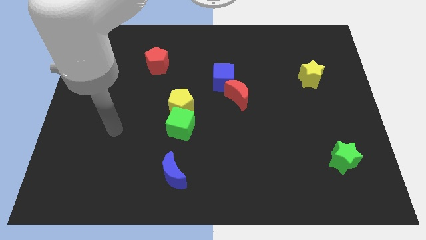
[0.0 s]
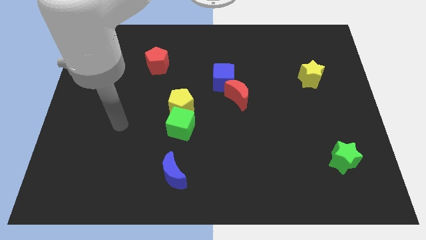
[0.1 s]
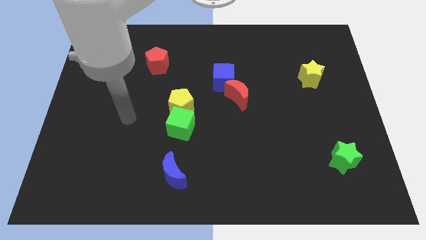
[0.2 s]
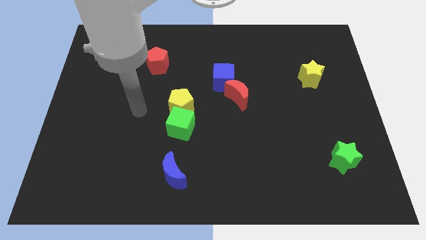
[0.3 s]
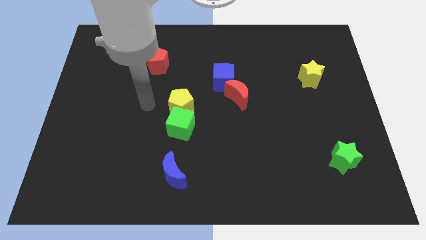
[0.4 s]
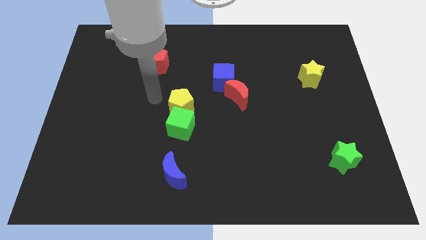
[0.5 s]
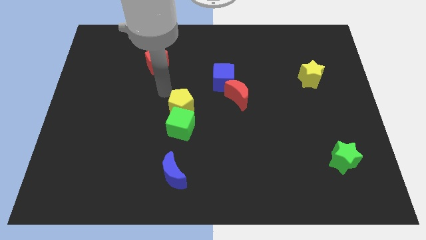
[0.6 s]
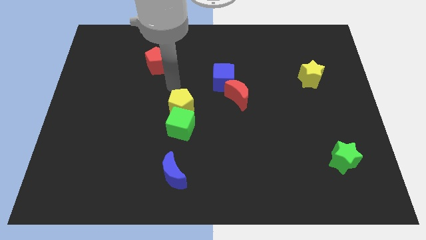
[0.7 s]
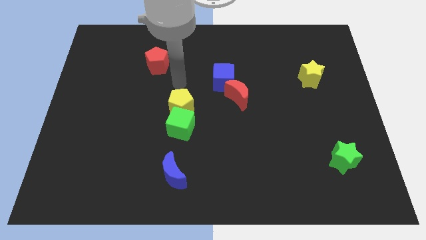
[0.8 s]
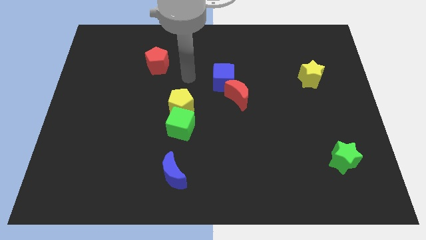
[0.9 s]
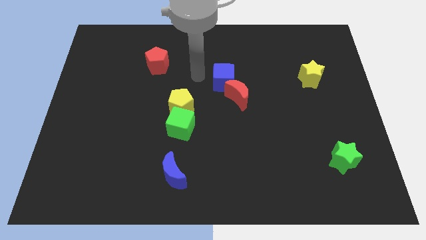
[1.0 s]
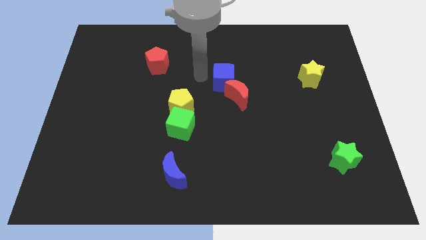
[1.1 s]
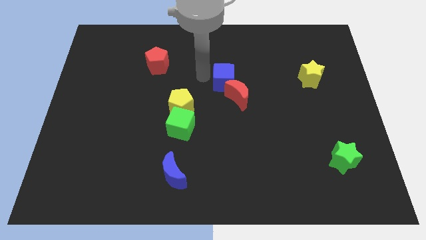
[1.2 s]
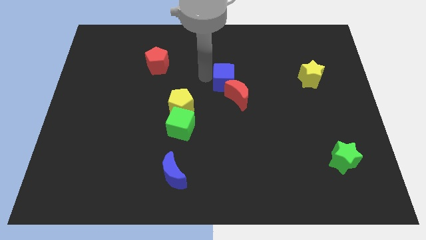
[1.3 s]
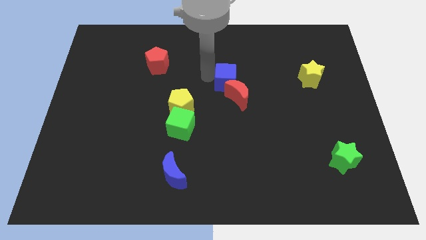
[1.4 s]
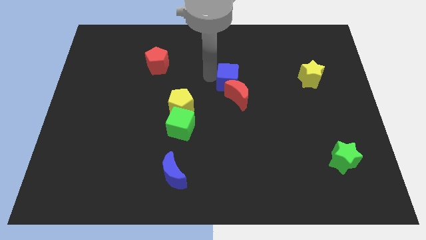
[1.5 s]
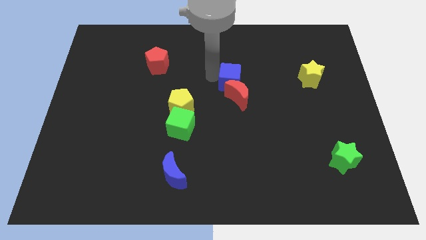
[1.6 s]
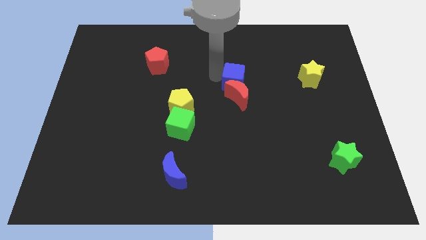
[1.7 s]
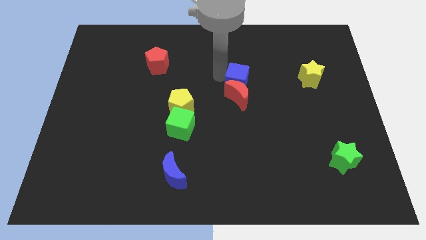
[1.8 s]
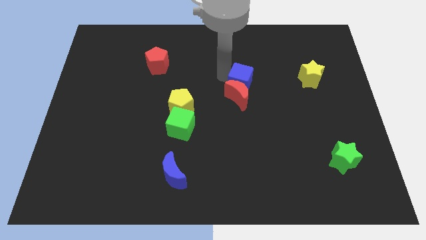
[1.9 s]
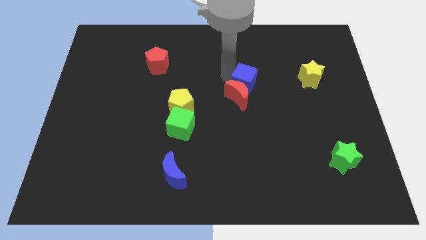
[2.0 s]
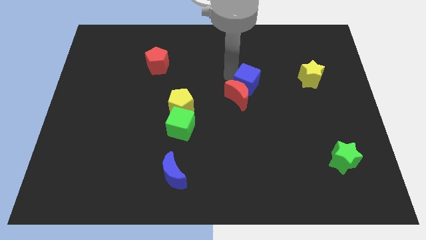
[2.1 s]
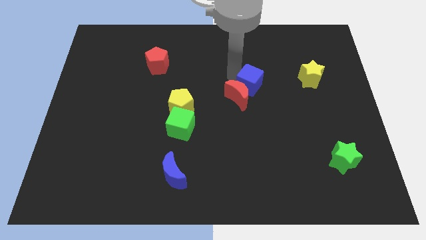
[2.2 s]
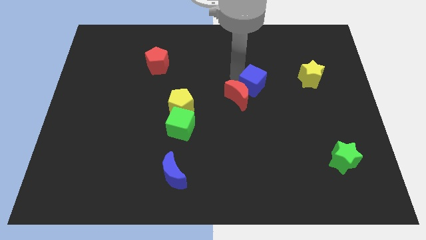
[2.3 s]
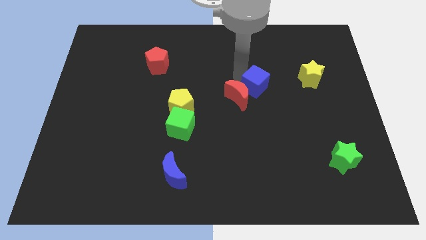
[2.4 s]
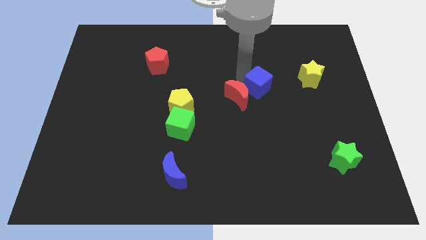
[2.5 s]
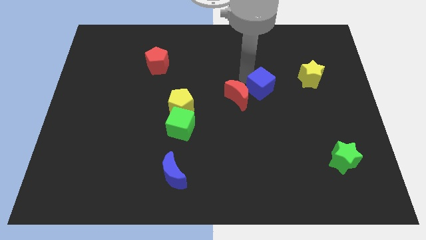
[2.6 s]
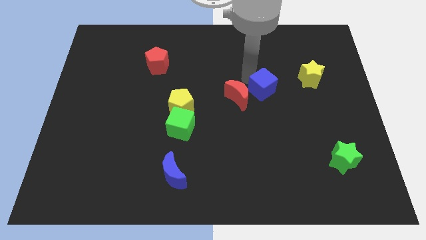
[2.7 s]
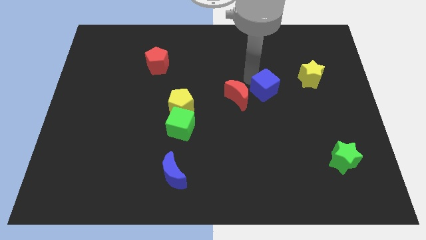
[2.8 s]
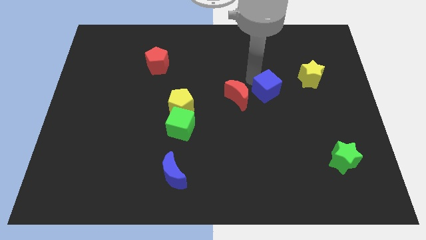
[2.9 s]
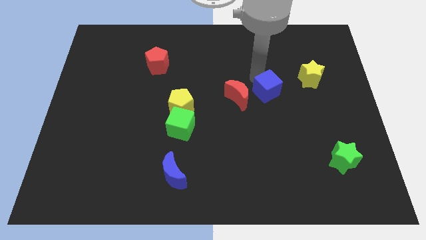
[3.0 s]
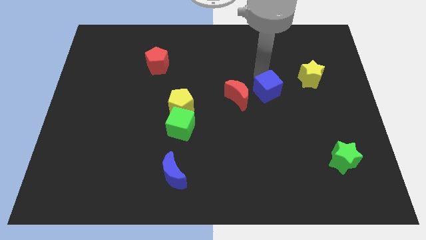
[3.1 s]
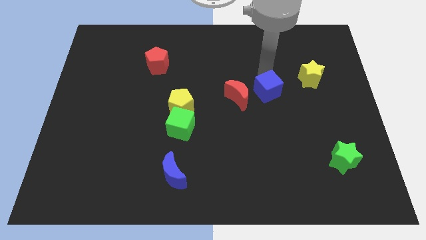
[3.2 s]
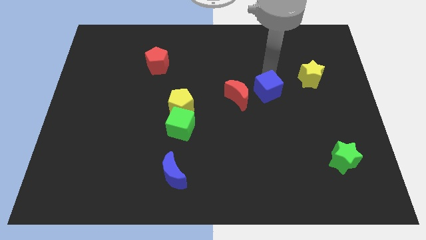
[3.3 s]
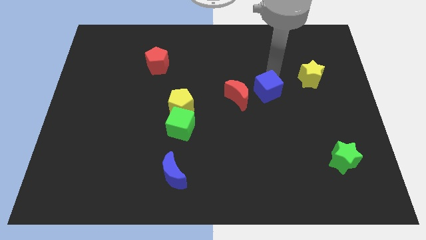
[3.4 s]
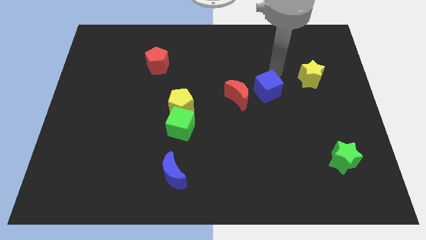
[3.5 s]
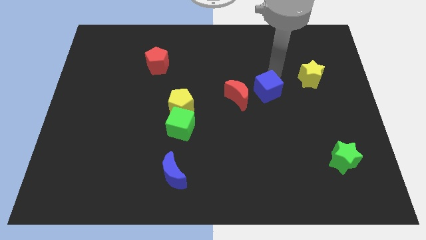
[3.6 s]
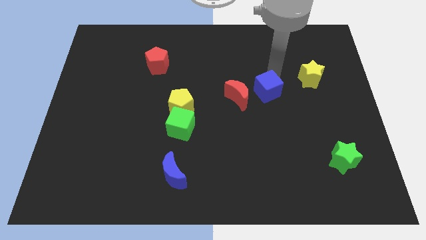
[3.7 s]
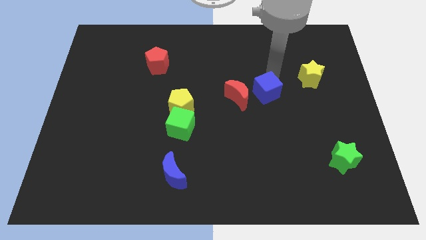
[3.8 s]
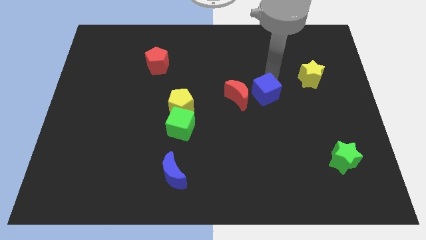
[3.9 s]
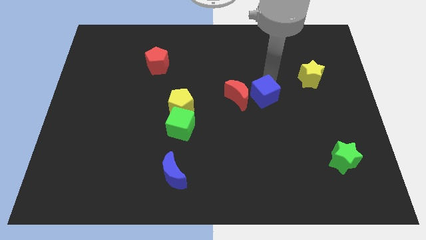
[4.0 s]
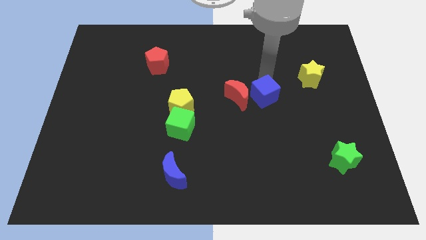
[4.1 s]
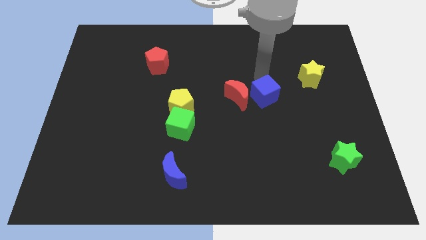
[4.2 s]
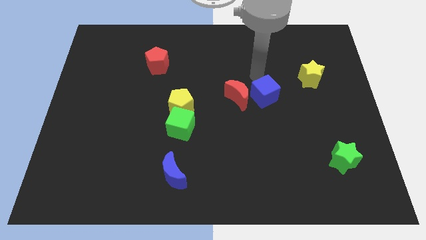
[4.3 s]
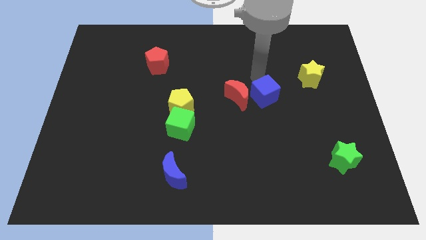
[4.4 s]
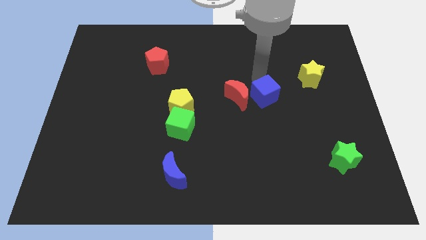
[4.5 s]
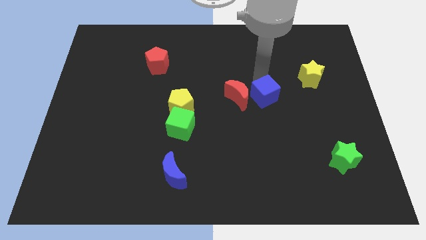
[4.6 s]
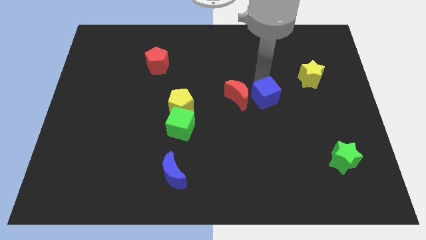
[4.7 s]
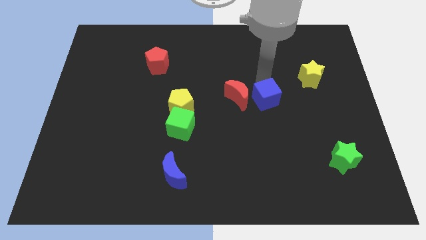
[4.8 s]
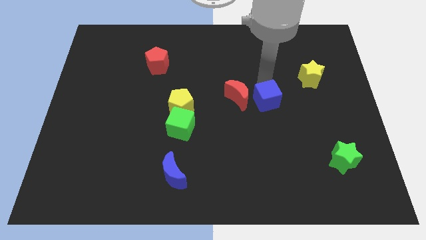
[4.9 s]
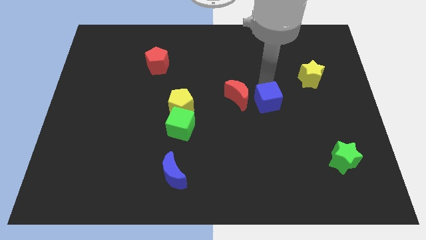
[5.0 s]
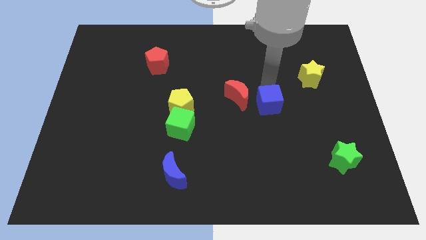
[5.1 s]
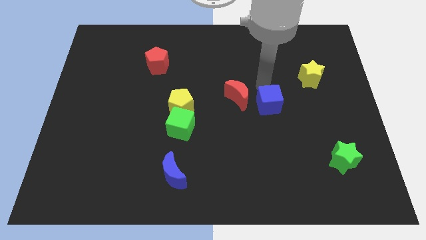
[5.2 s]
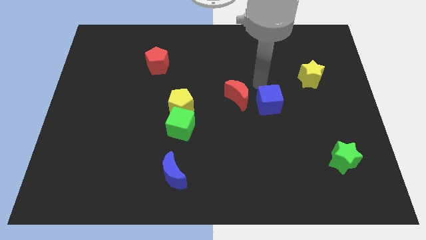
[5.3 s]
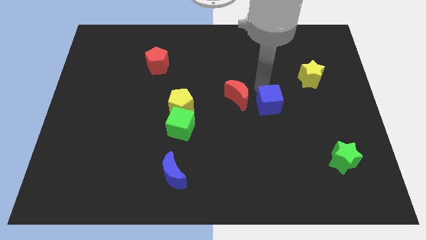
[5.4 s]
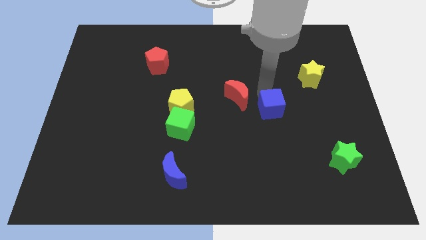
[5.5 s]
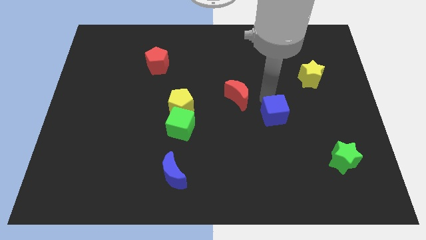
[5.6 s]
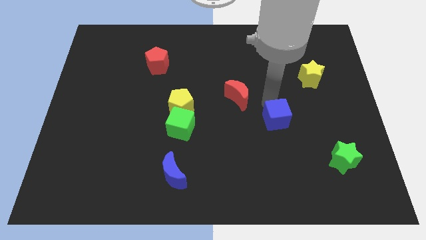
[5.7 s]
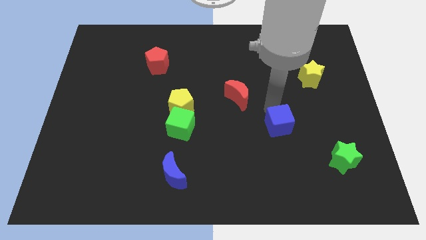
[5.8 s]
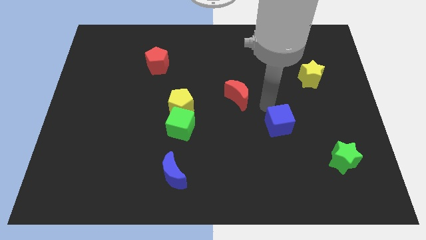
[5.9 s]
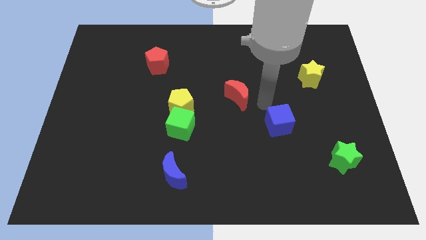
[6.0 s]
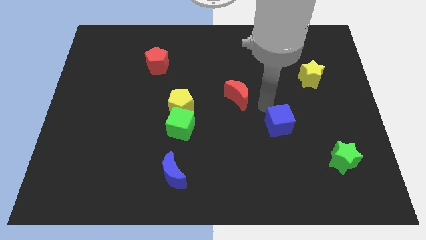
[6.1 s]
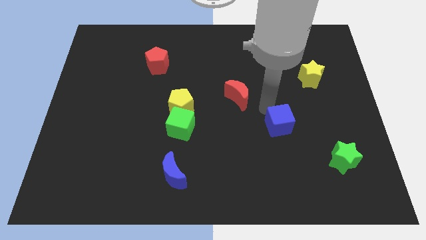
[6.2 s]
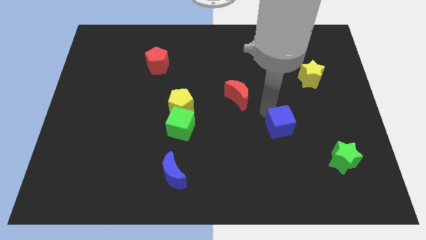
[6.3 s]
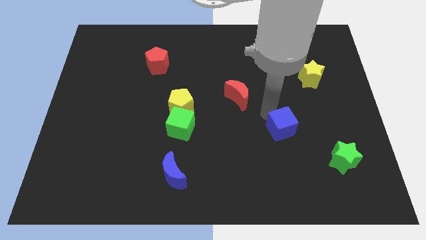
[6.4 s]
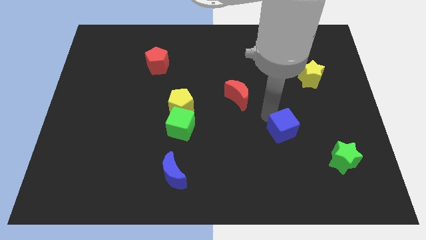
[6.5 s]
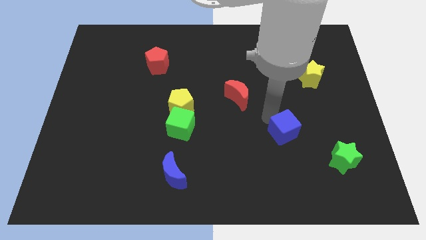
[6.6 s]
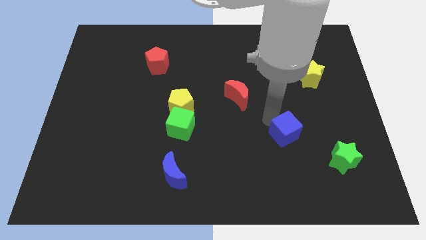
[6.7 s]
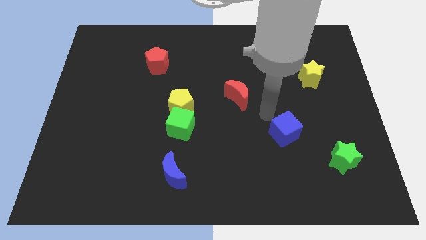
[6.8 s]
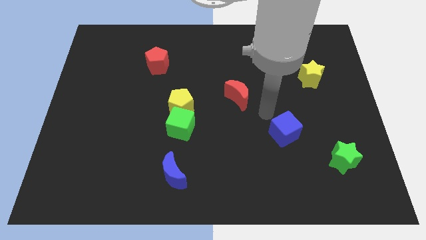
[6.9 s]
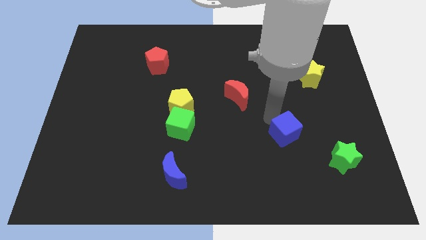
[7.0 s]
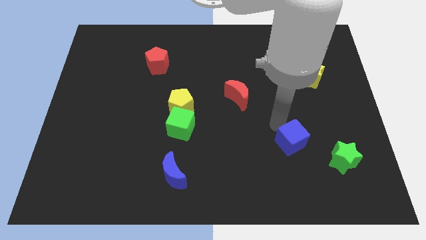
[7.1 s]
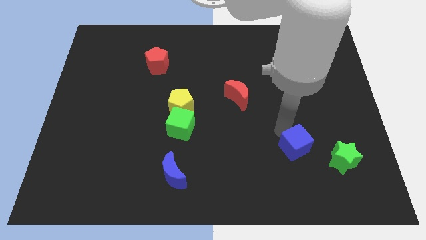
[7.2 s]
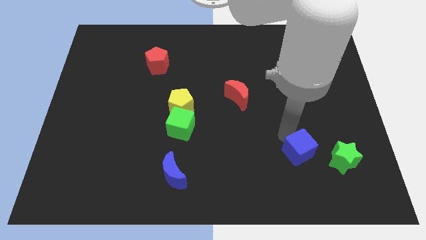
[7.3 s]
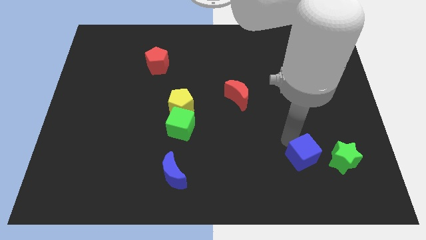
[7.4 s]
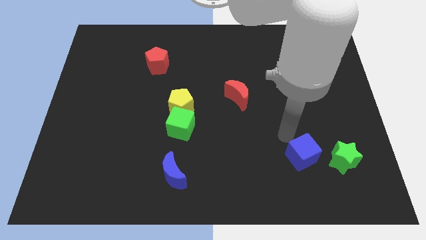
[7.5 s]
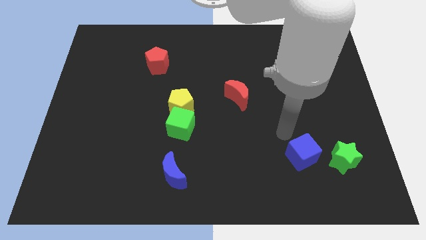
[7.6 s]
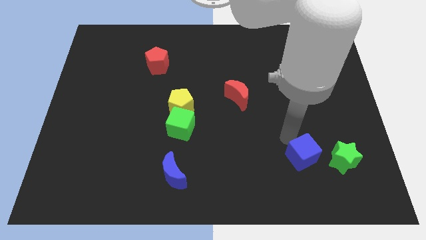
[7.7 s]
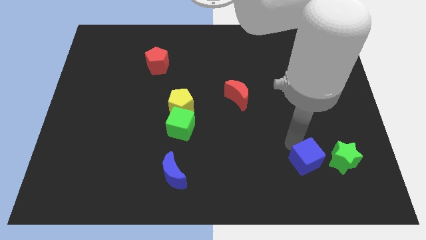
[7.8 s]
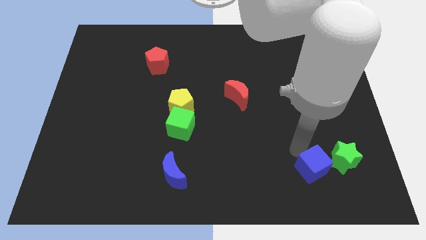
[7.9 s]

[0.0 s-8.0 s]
move the blue cube to the bottom left of the green star
